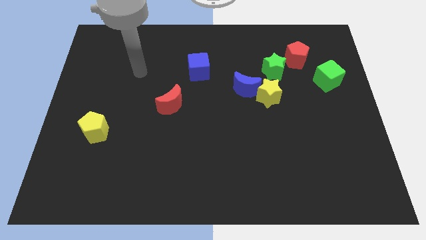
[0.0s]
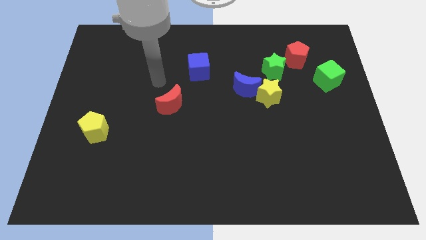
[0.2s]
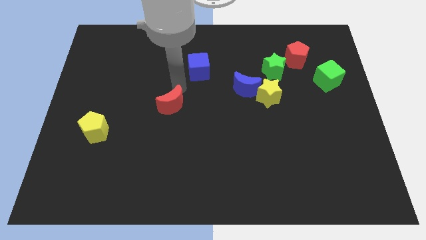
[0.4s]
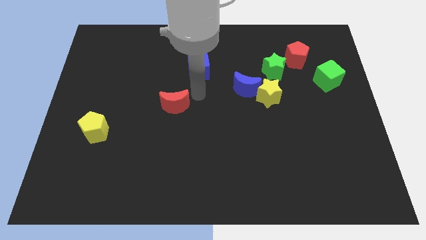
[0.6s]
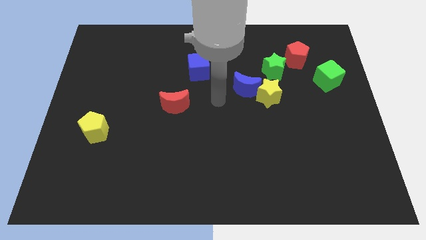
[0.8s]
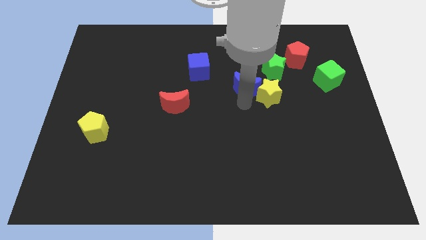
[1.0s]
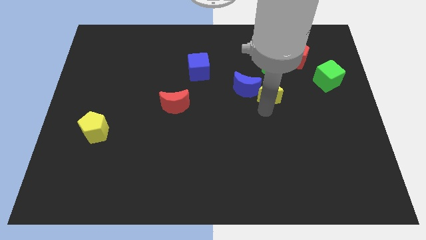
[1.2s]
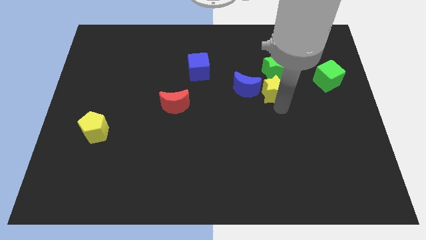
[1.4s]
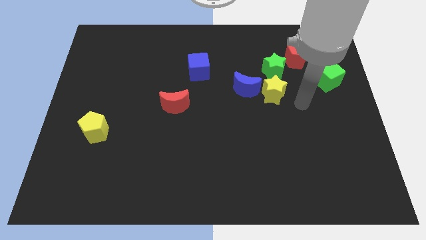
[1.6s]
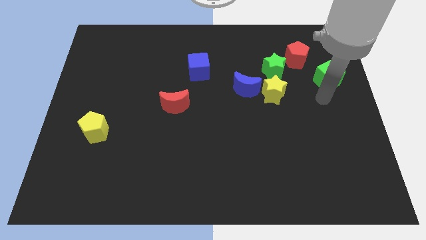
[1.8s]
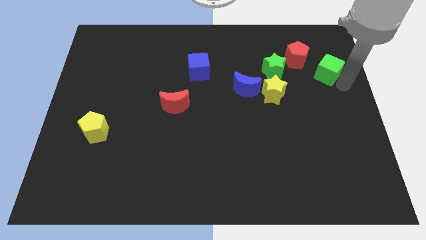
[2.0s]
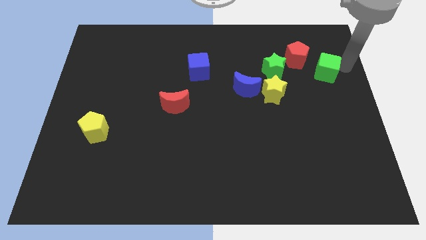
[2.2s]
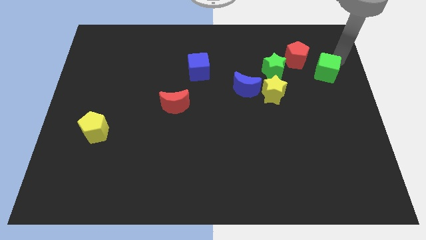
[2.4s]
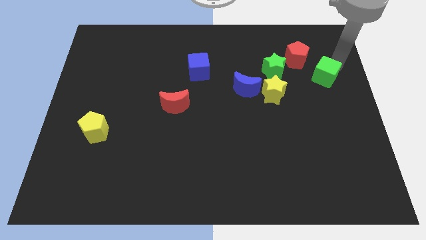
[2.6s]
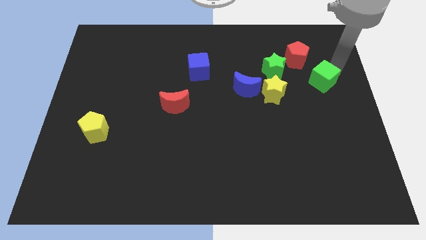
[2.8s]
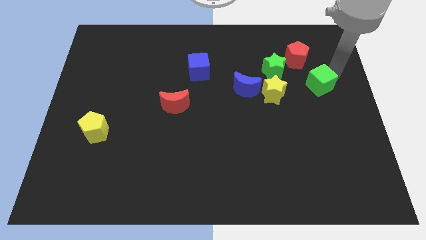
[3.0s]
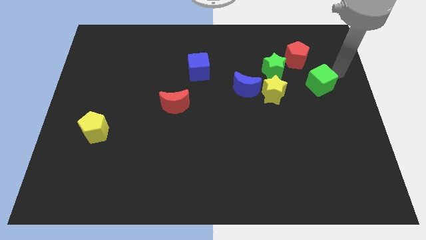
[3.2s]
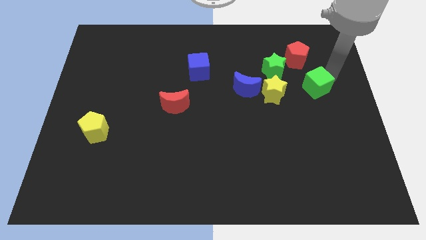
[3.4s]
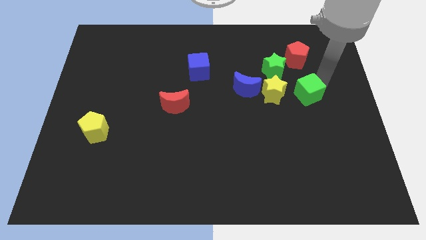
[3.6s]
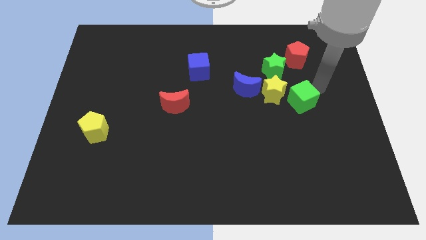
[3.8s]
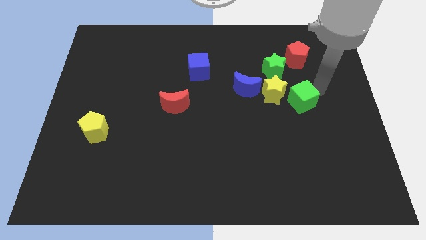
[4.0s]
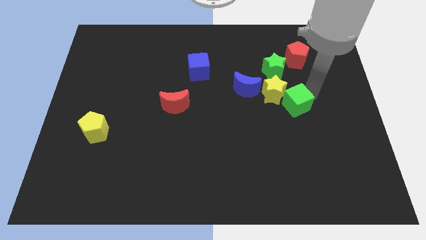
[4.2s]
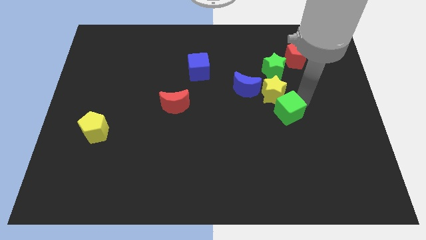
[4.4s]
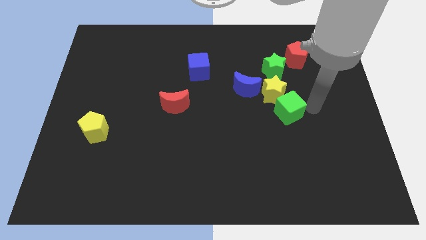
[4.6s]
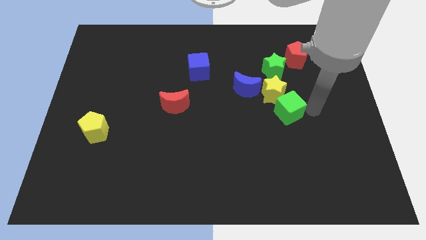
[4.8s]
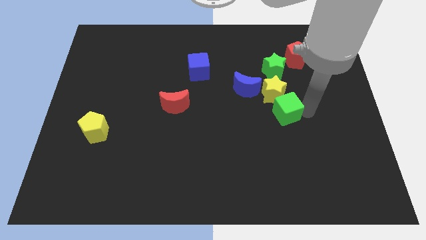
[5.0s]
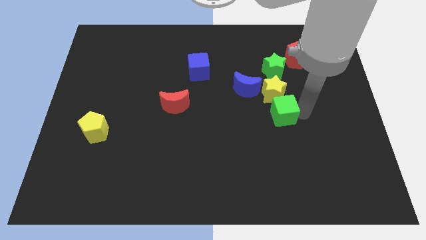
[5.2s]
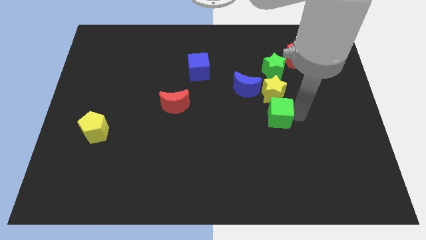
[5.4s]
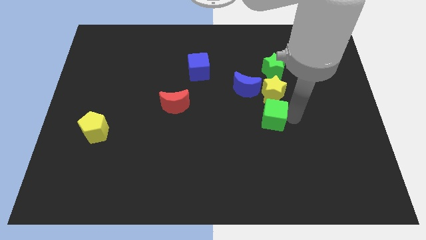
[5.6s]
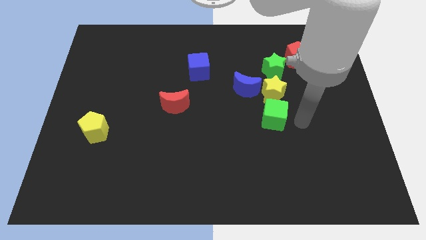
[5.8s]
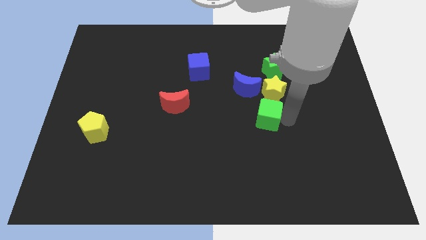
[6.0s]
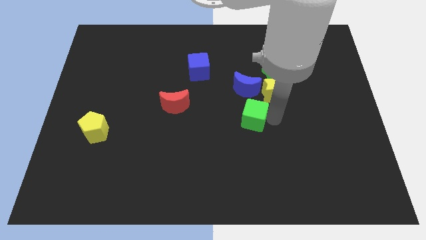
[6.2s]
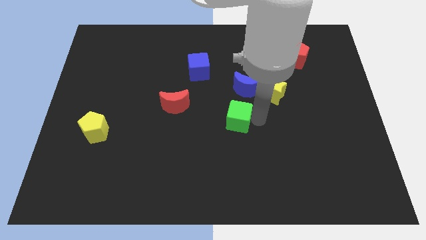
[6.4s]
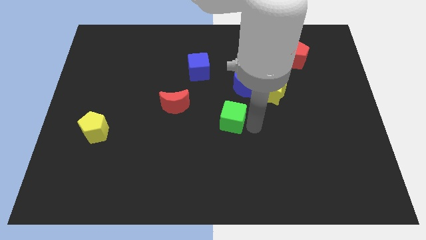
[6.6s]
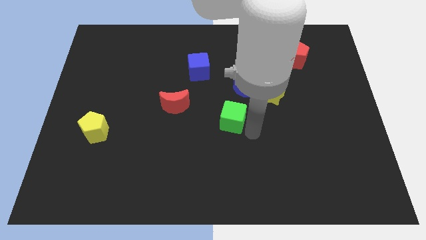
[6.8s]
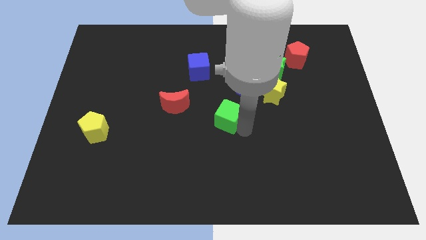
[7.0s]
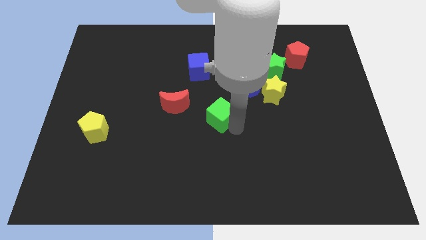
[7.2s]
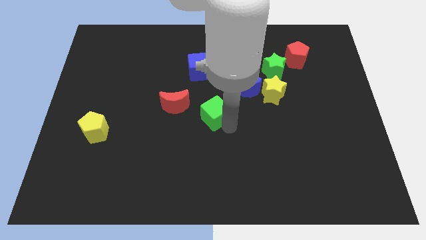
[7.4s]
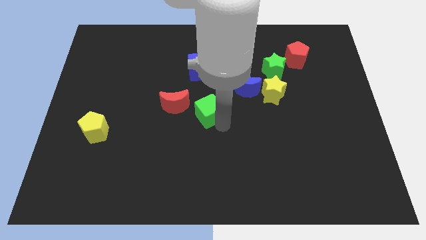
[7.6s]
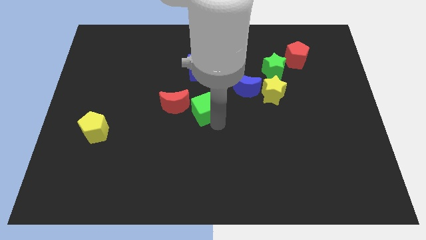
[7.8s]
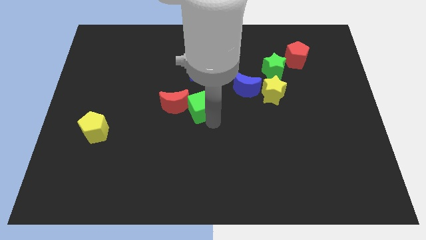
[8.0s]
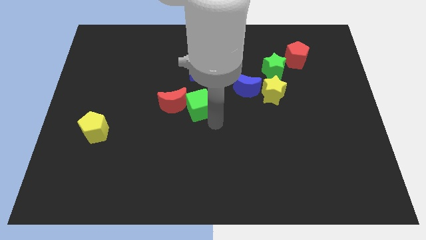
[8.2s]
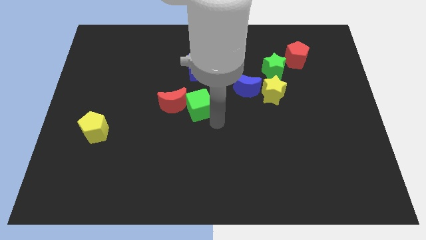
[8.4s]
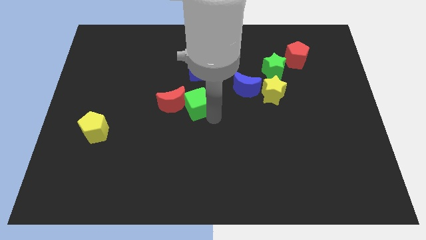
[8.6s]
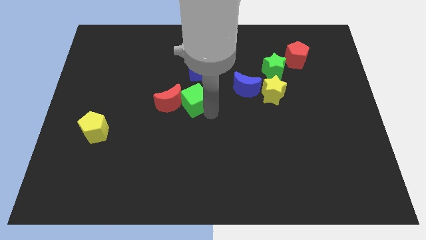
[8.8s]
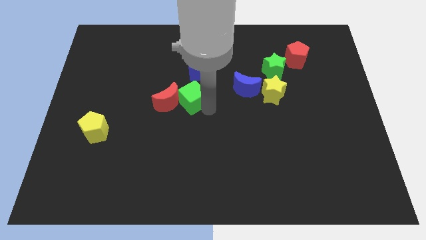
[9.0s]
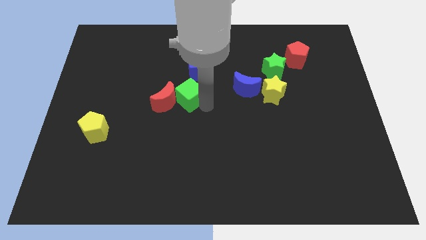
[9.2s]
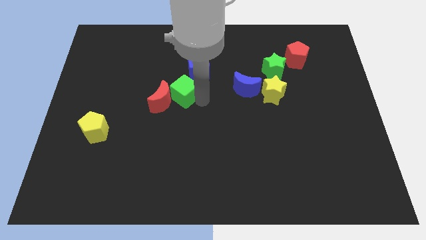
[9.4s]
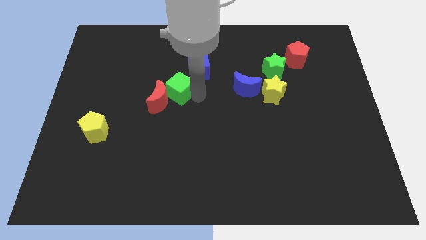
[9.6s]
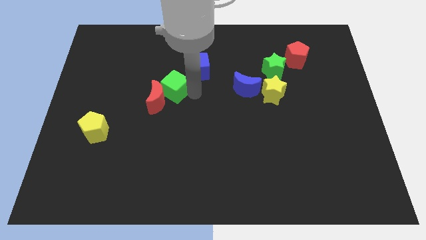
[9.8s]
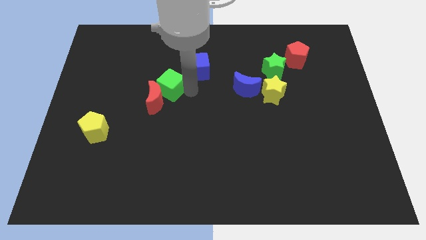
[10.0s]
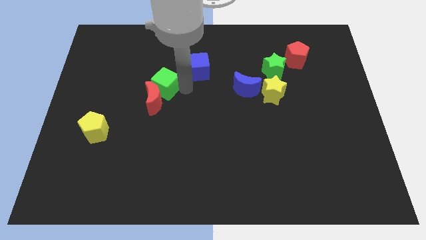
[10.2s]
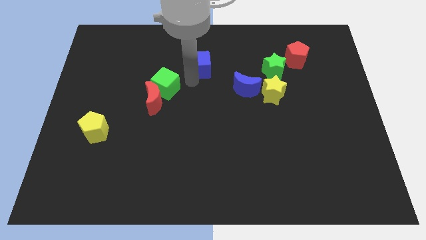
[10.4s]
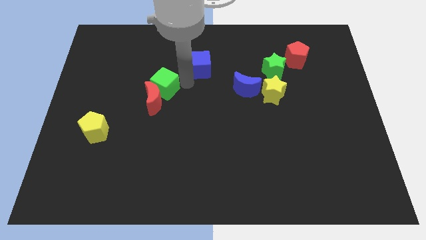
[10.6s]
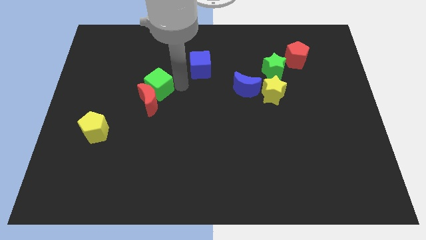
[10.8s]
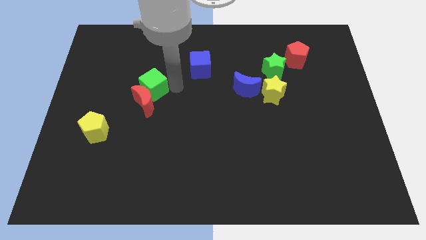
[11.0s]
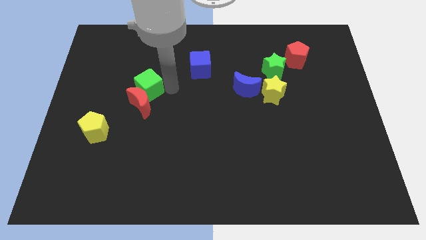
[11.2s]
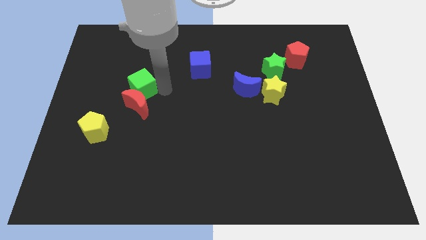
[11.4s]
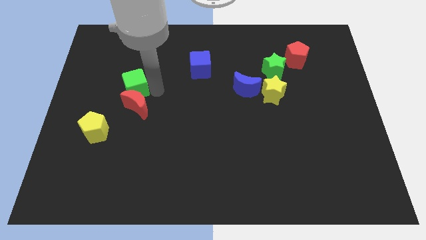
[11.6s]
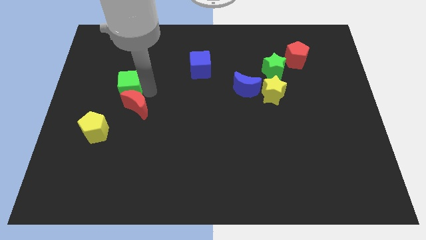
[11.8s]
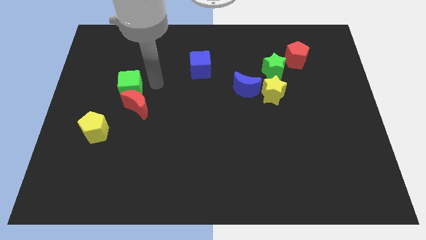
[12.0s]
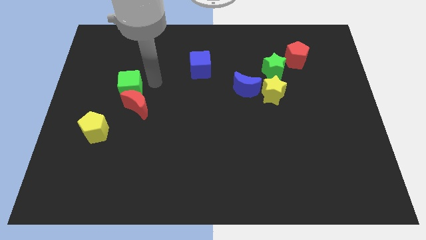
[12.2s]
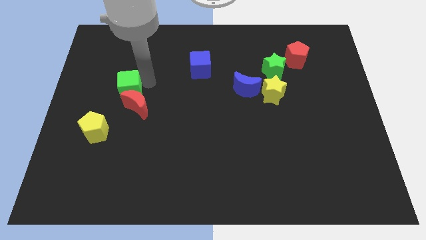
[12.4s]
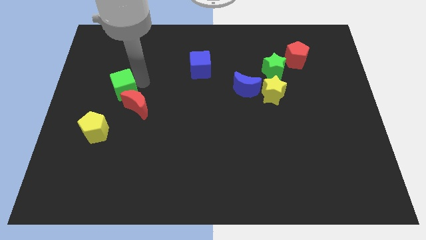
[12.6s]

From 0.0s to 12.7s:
move the green cube above the yellow pentagon
